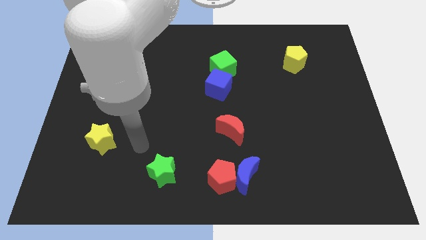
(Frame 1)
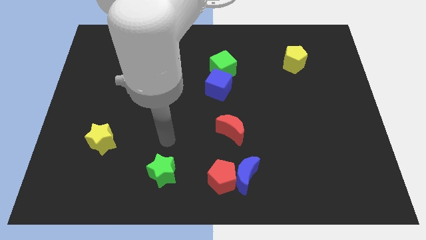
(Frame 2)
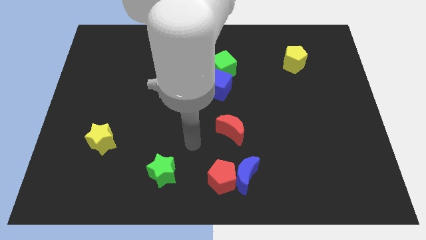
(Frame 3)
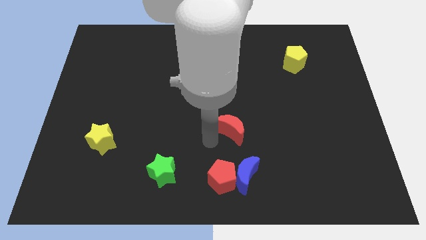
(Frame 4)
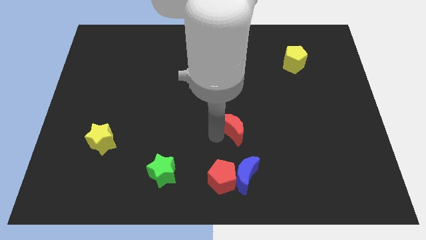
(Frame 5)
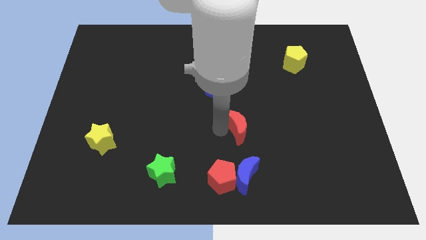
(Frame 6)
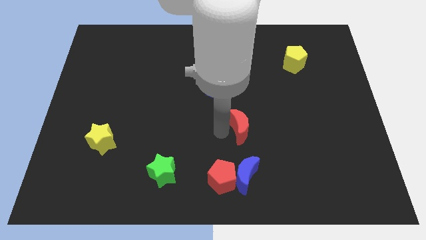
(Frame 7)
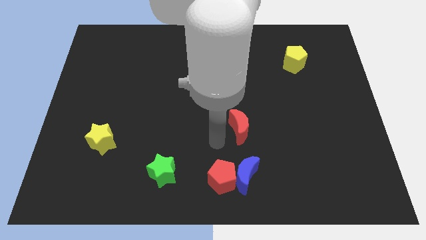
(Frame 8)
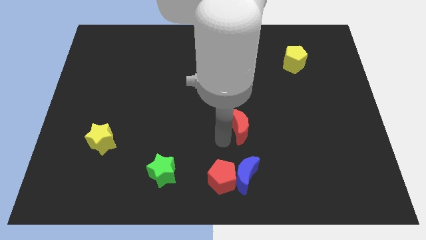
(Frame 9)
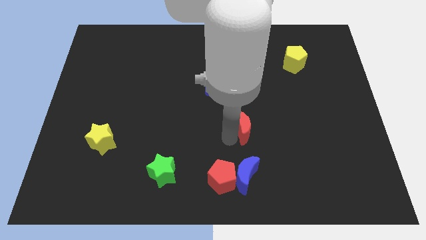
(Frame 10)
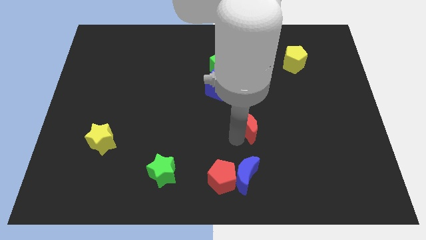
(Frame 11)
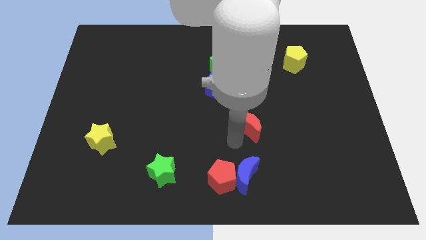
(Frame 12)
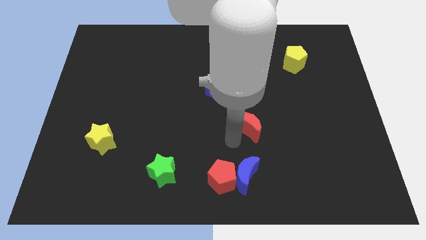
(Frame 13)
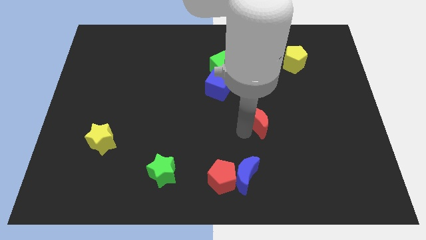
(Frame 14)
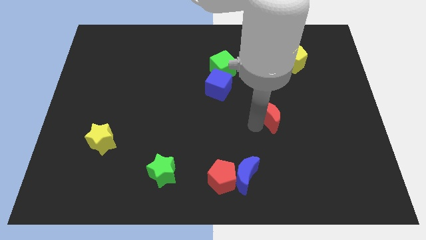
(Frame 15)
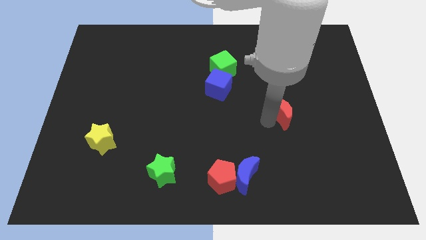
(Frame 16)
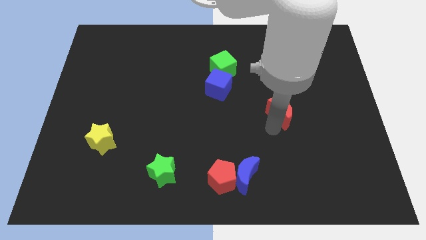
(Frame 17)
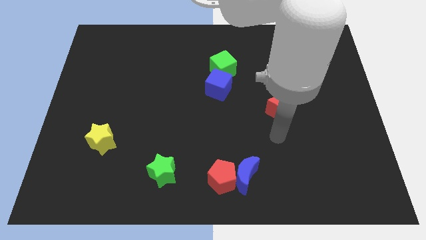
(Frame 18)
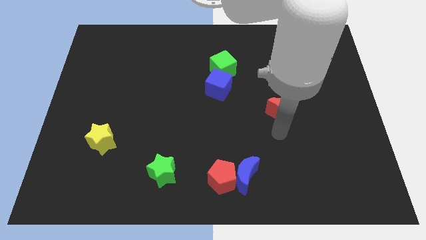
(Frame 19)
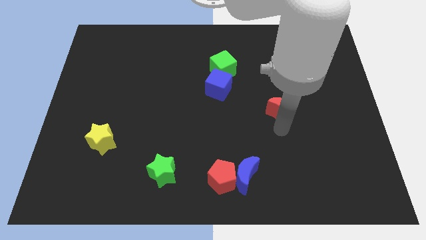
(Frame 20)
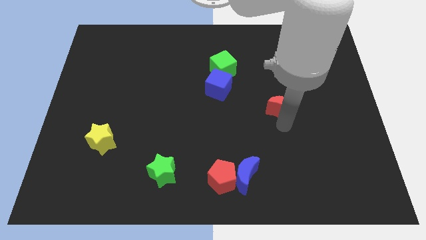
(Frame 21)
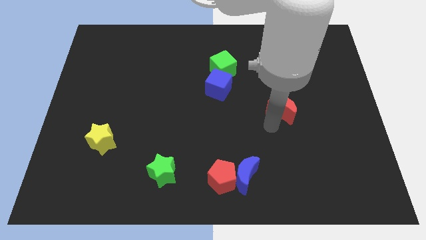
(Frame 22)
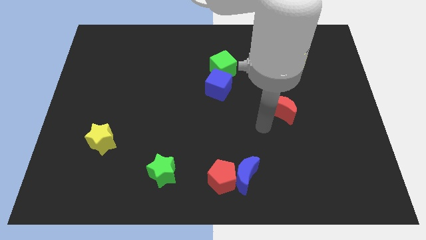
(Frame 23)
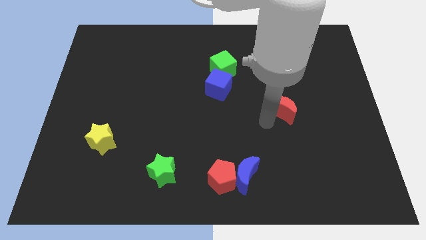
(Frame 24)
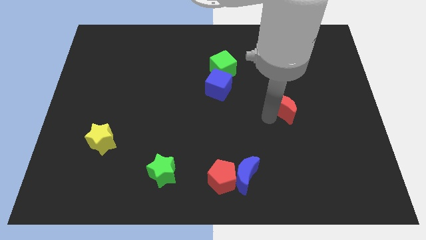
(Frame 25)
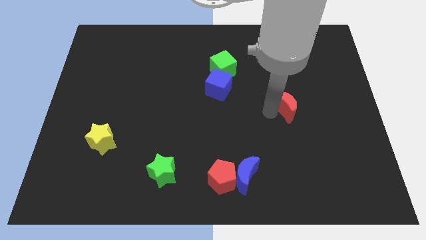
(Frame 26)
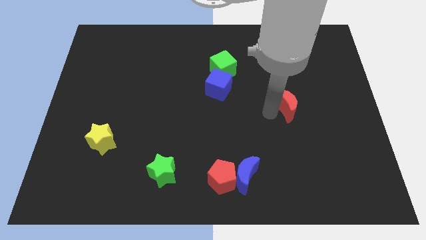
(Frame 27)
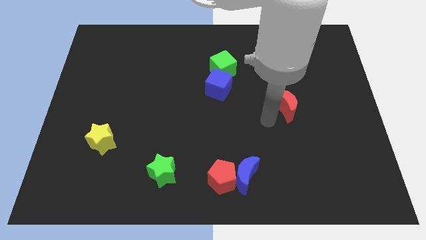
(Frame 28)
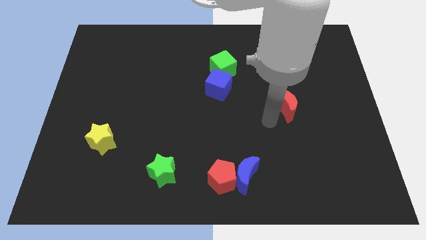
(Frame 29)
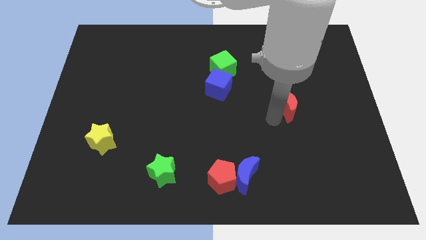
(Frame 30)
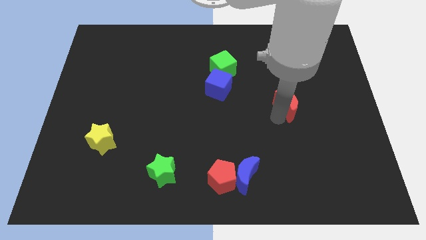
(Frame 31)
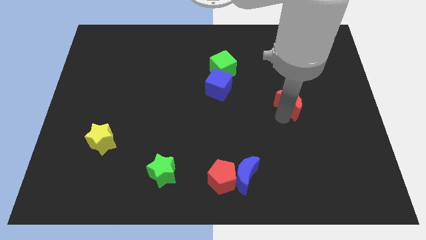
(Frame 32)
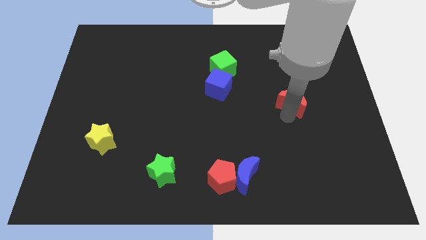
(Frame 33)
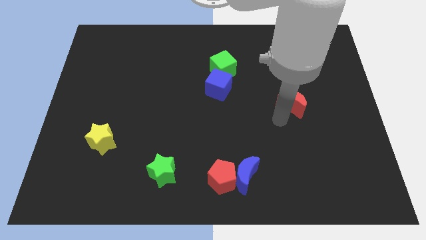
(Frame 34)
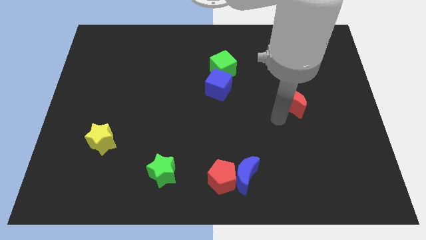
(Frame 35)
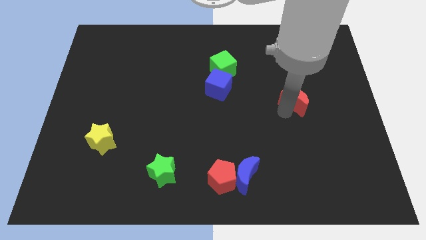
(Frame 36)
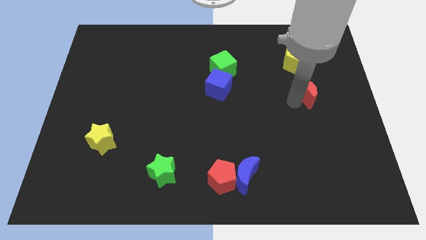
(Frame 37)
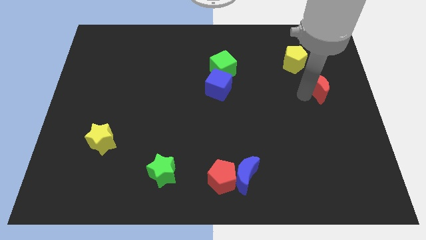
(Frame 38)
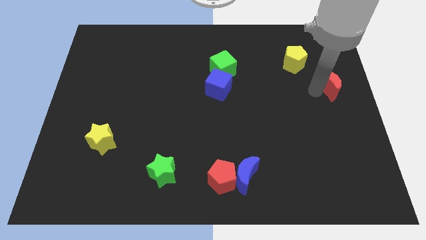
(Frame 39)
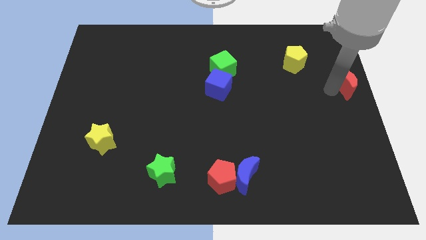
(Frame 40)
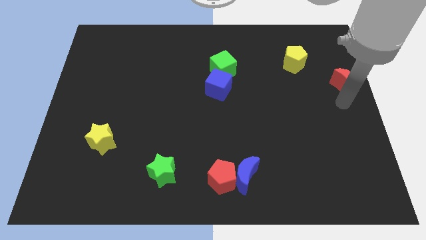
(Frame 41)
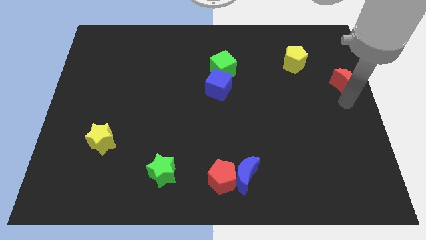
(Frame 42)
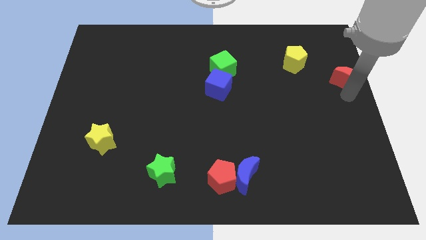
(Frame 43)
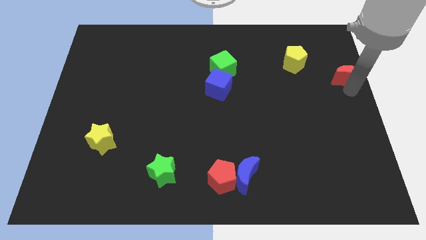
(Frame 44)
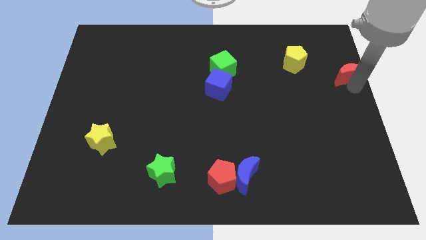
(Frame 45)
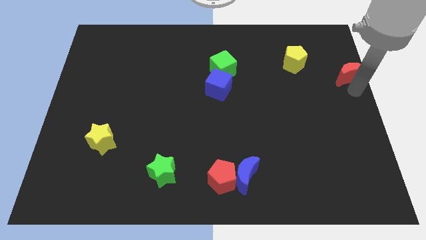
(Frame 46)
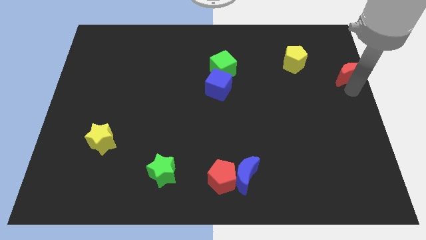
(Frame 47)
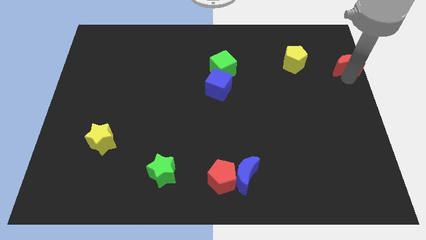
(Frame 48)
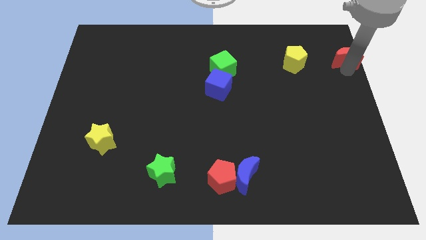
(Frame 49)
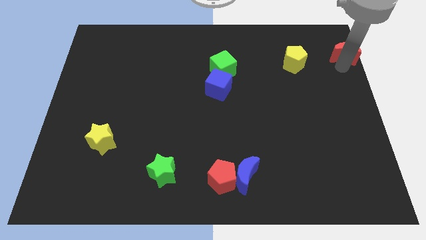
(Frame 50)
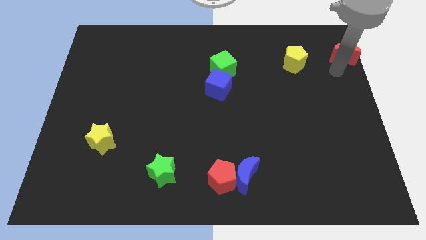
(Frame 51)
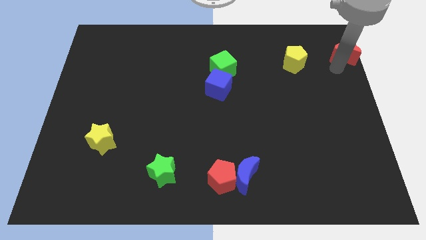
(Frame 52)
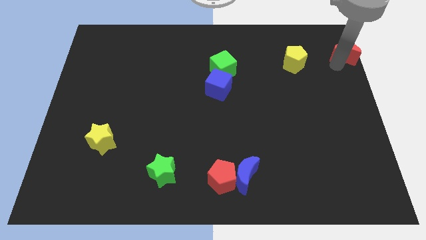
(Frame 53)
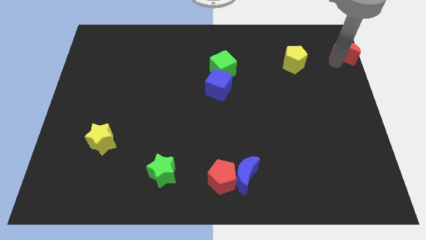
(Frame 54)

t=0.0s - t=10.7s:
slide the red moon to the top right of the board
